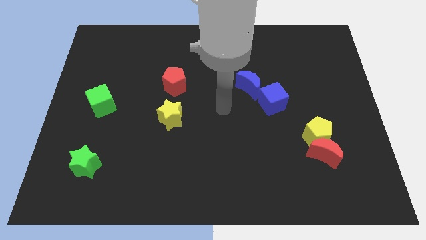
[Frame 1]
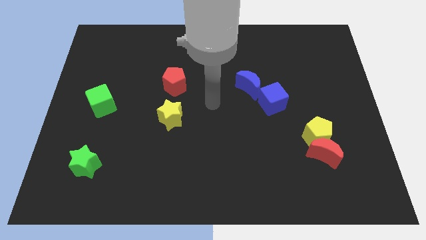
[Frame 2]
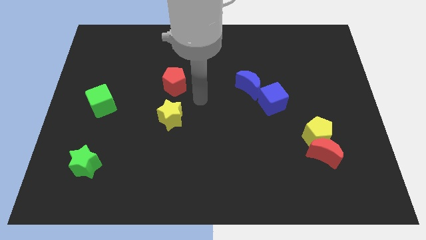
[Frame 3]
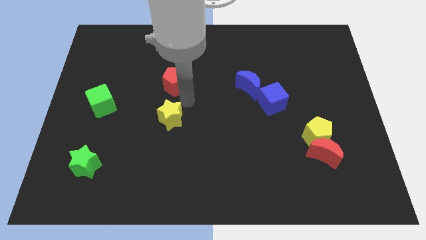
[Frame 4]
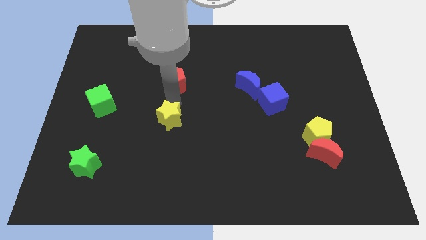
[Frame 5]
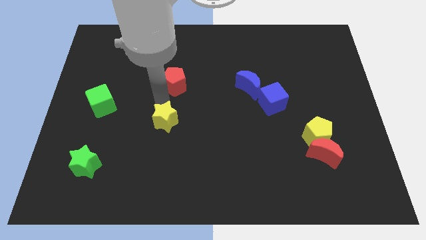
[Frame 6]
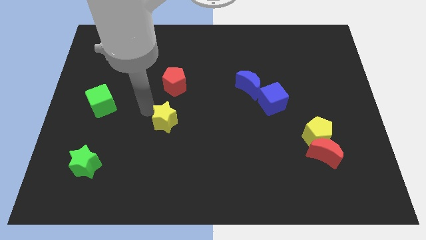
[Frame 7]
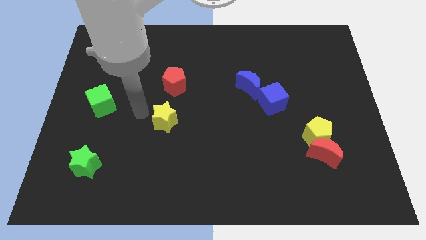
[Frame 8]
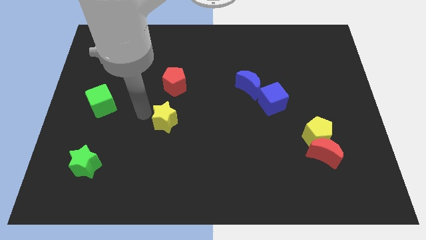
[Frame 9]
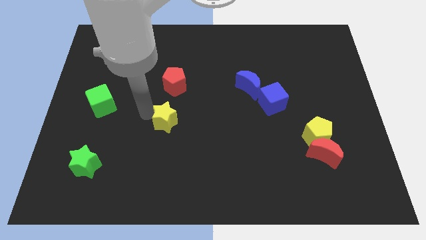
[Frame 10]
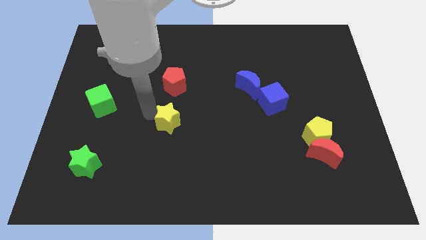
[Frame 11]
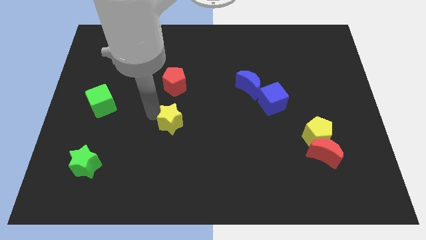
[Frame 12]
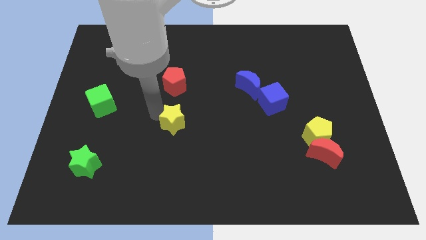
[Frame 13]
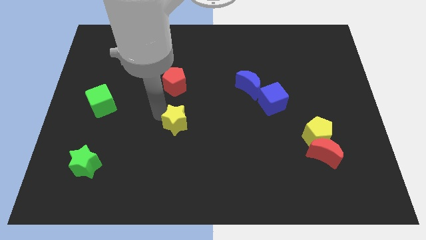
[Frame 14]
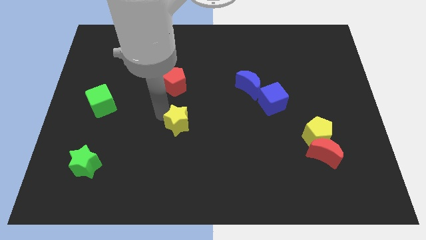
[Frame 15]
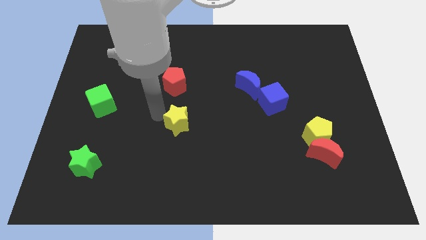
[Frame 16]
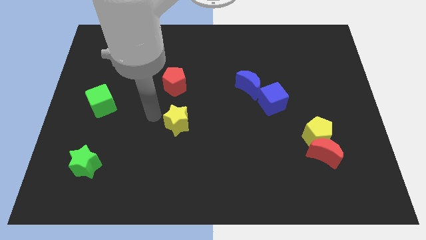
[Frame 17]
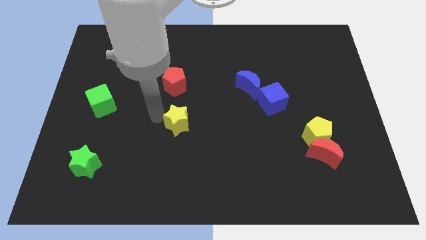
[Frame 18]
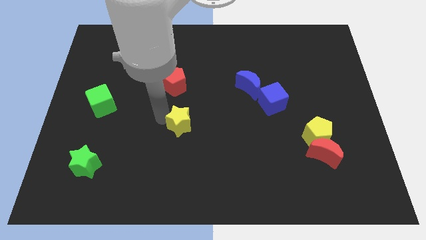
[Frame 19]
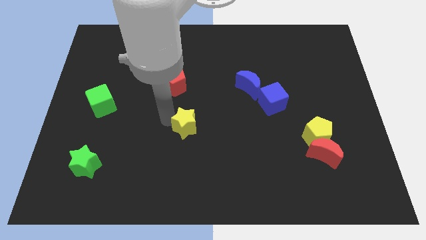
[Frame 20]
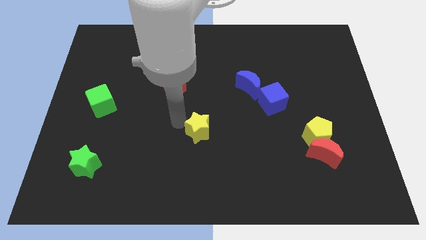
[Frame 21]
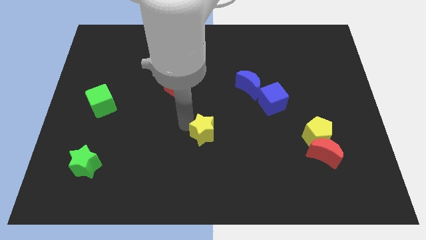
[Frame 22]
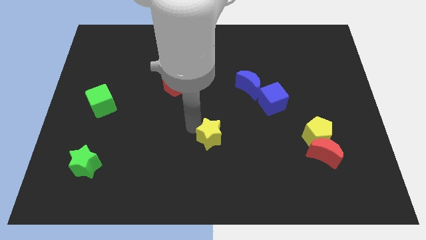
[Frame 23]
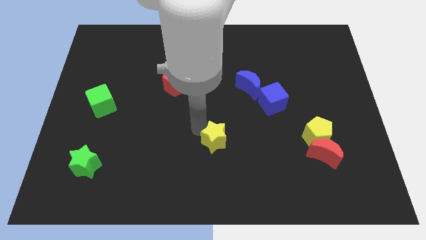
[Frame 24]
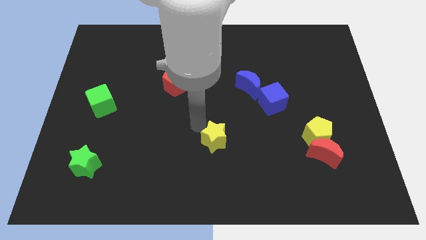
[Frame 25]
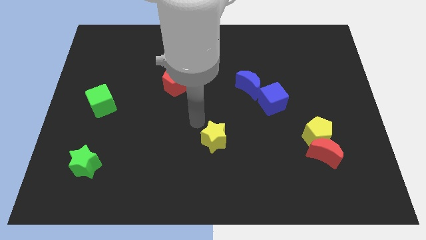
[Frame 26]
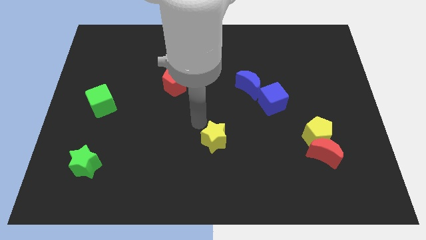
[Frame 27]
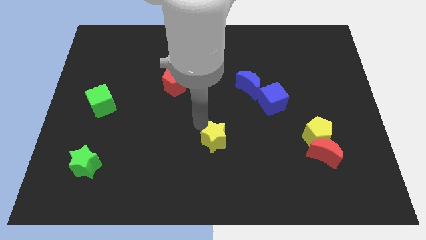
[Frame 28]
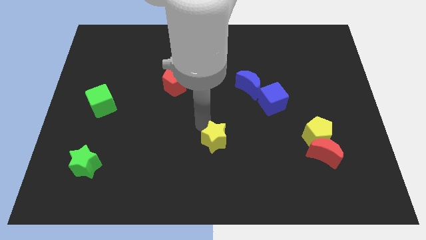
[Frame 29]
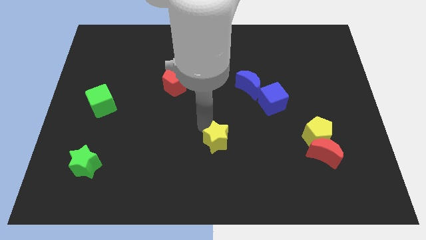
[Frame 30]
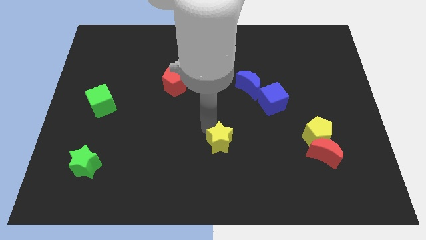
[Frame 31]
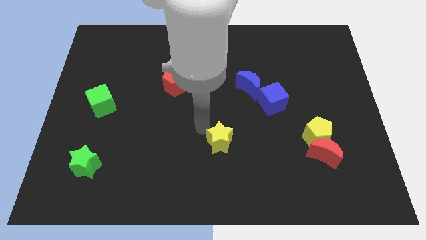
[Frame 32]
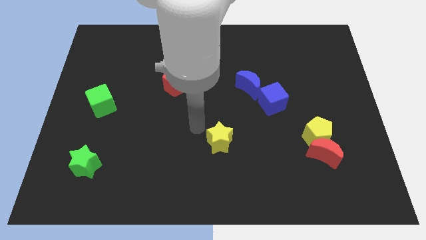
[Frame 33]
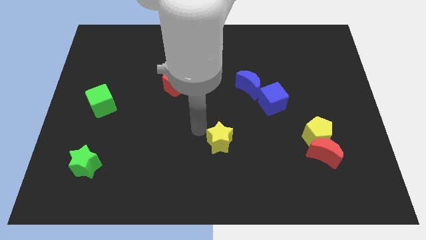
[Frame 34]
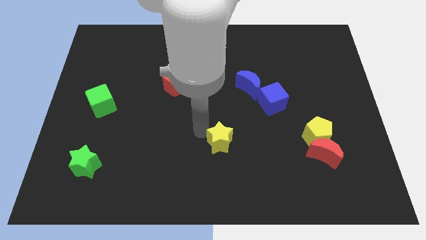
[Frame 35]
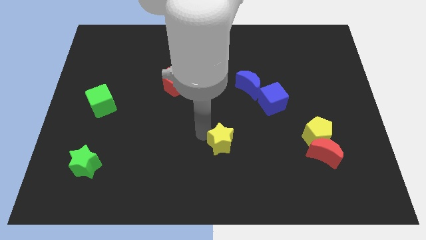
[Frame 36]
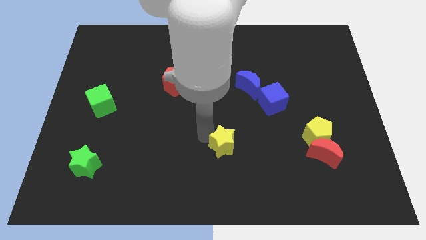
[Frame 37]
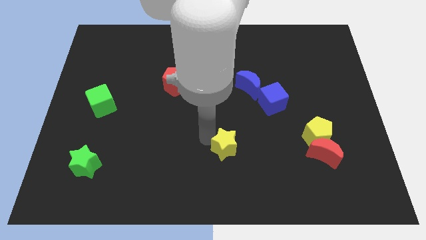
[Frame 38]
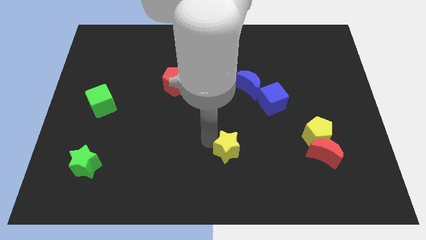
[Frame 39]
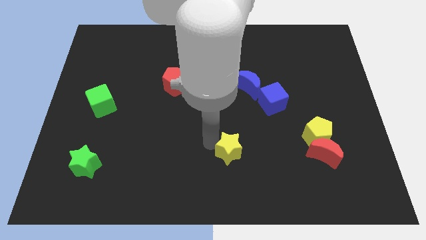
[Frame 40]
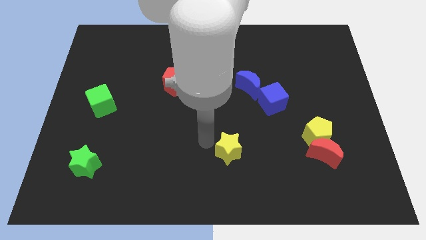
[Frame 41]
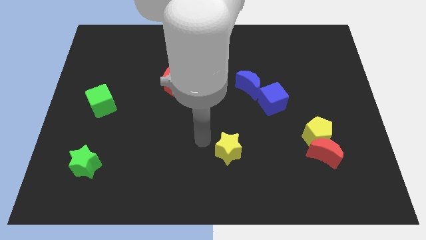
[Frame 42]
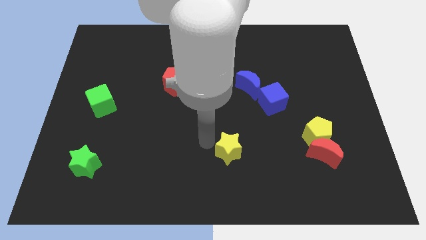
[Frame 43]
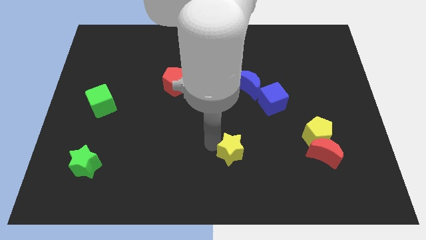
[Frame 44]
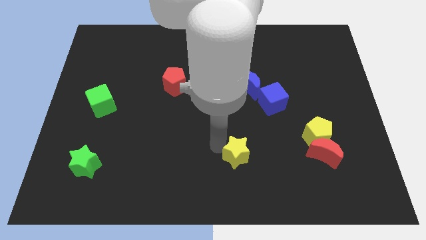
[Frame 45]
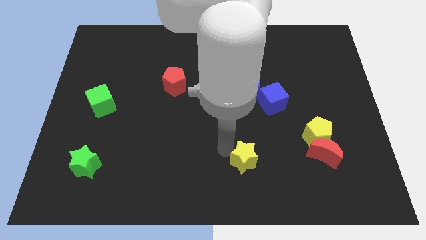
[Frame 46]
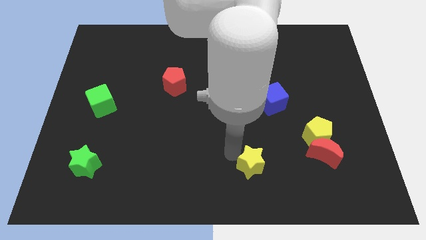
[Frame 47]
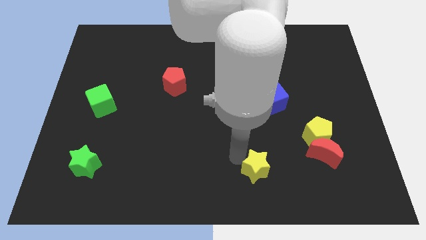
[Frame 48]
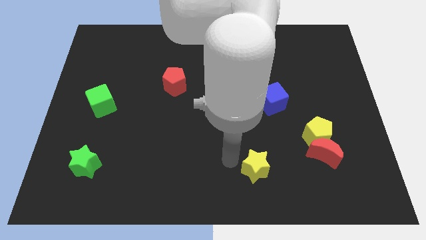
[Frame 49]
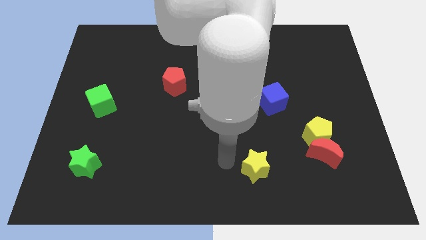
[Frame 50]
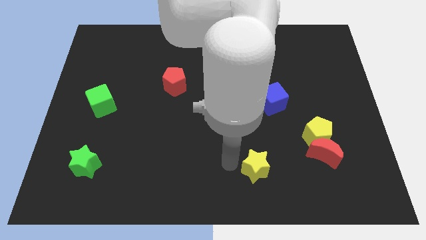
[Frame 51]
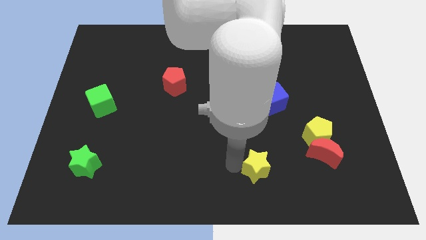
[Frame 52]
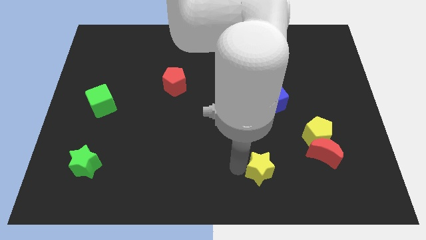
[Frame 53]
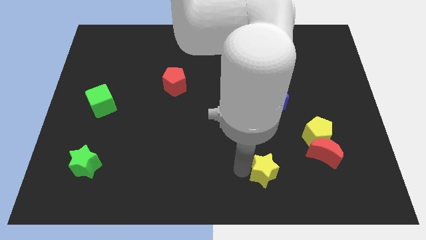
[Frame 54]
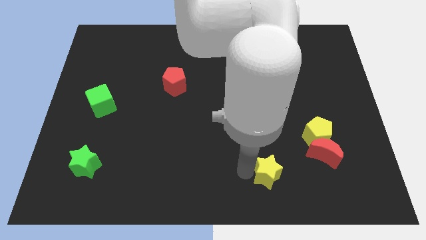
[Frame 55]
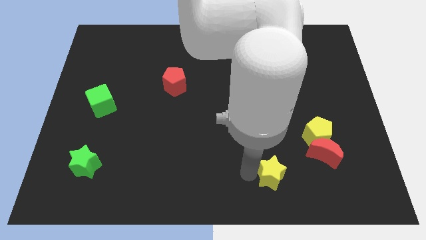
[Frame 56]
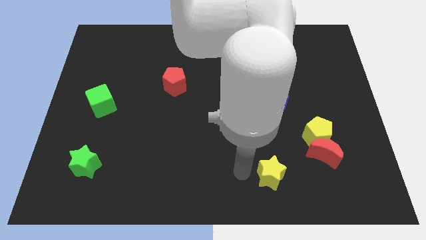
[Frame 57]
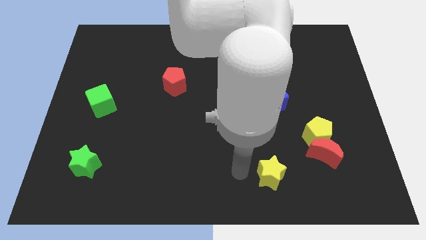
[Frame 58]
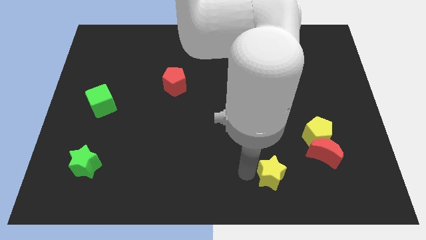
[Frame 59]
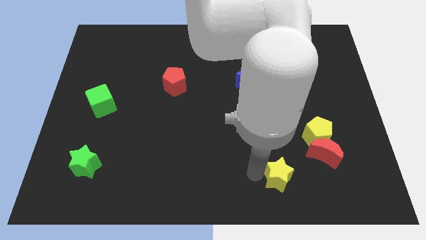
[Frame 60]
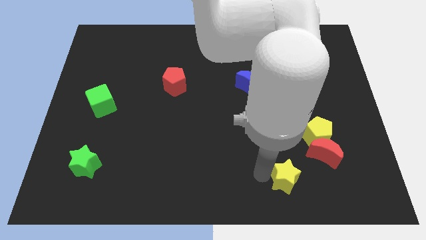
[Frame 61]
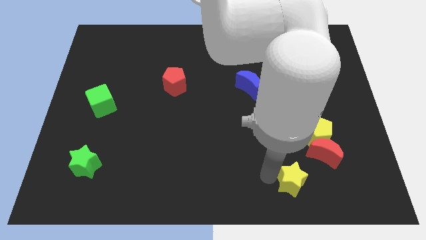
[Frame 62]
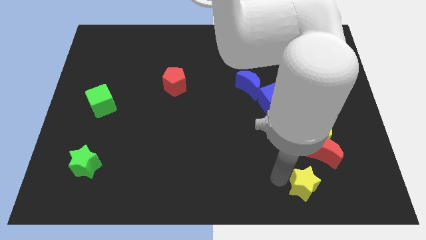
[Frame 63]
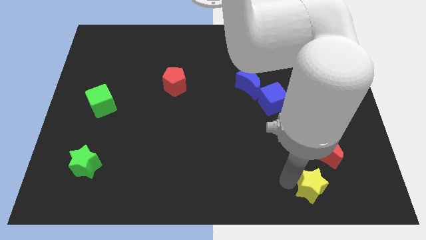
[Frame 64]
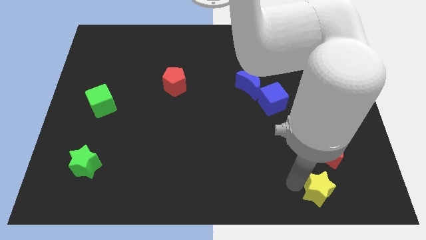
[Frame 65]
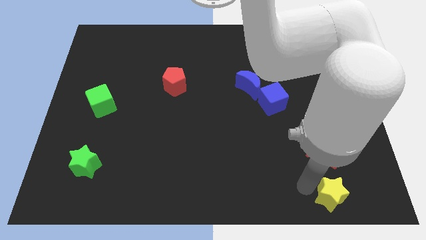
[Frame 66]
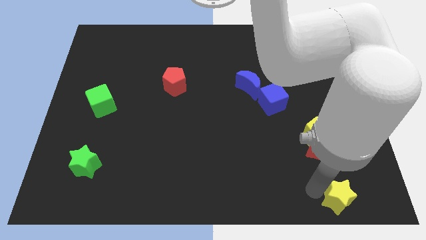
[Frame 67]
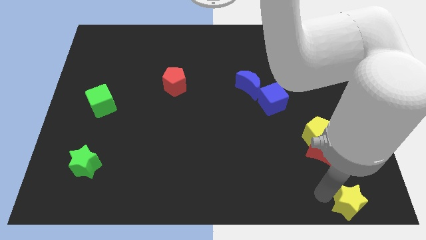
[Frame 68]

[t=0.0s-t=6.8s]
move the yellow star to the lower right corner
